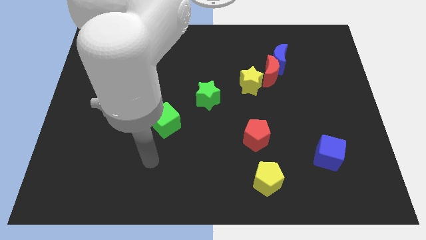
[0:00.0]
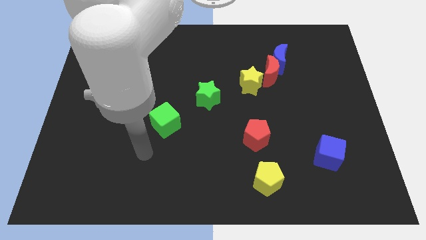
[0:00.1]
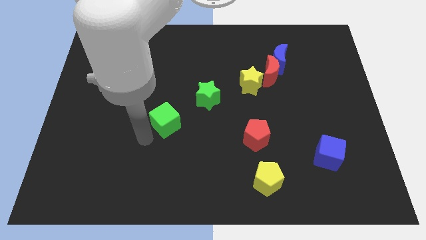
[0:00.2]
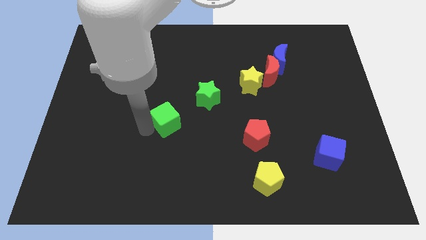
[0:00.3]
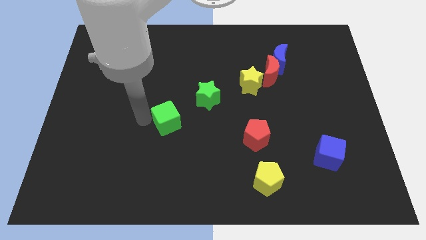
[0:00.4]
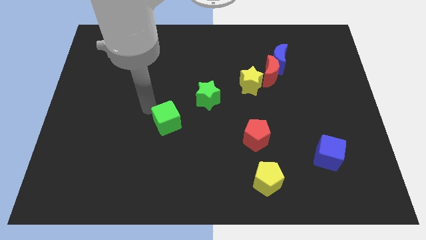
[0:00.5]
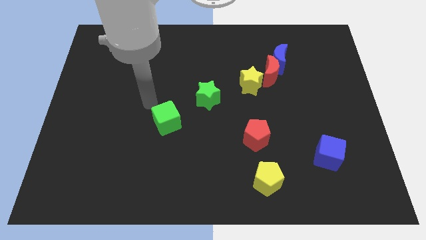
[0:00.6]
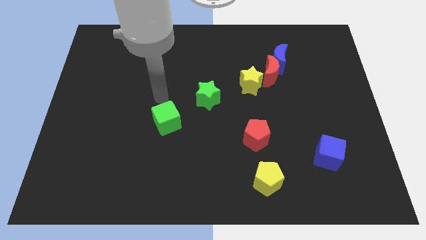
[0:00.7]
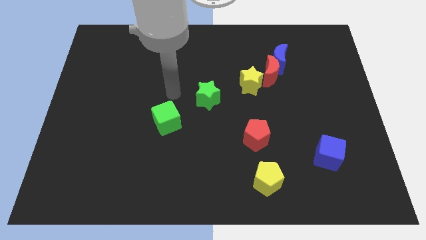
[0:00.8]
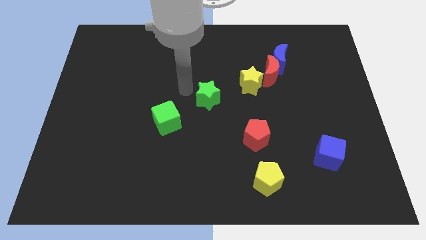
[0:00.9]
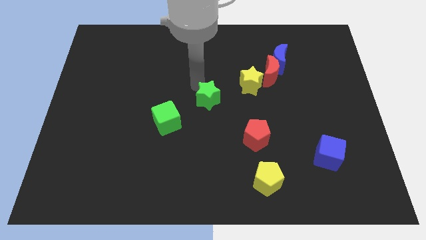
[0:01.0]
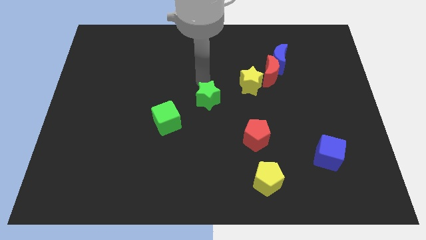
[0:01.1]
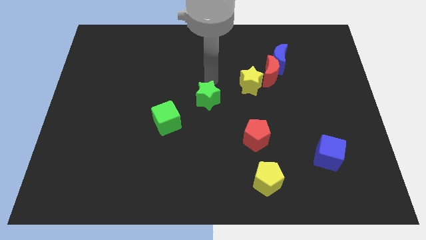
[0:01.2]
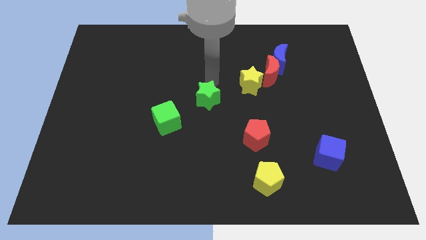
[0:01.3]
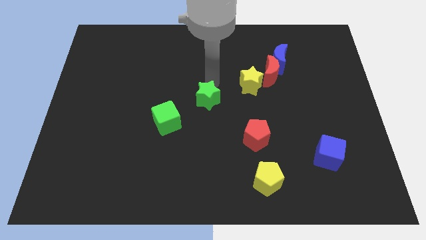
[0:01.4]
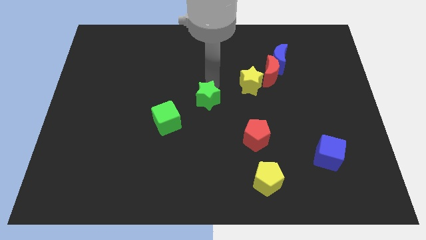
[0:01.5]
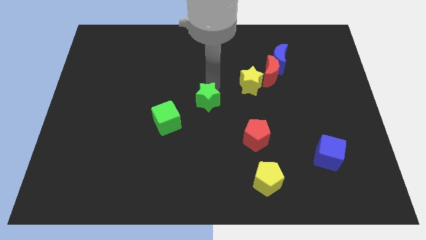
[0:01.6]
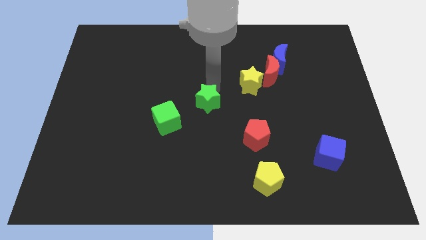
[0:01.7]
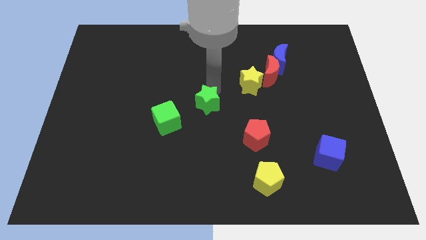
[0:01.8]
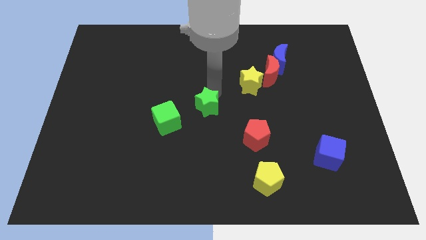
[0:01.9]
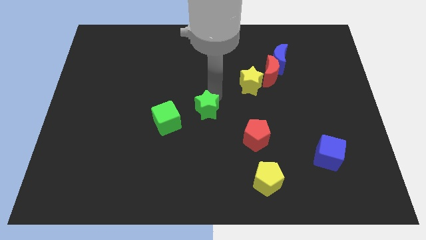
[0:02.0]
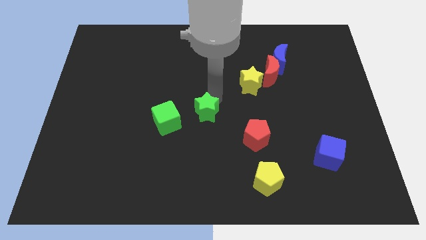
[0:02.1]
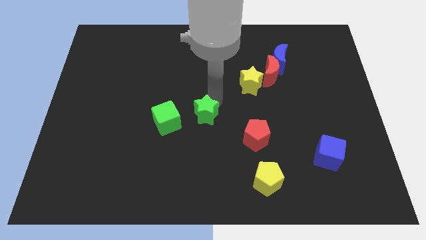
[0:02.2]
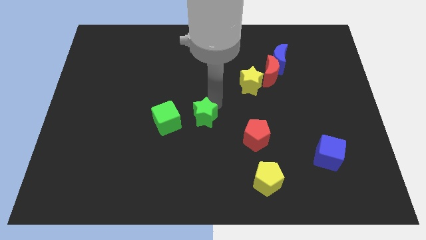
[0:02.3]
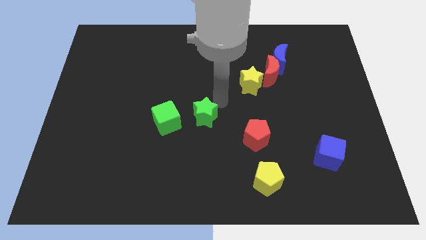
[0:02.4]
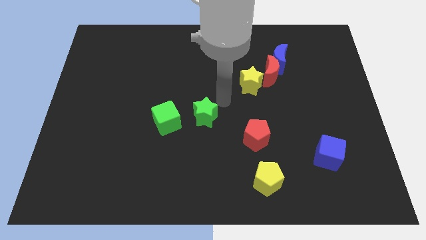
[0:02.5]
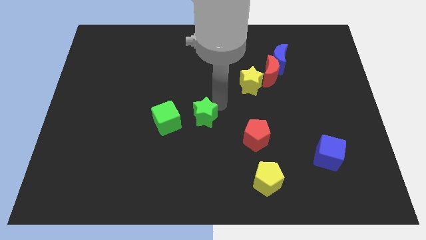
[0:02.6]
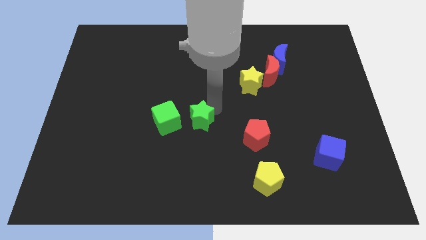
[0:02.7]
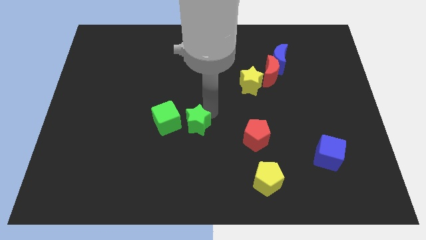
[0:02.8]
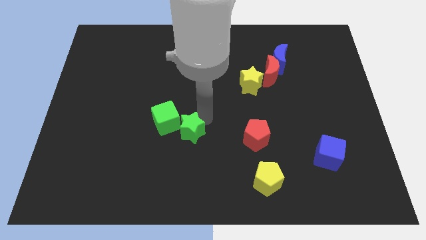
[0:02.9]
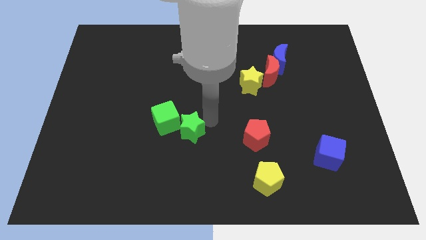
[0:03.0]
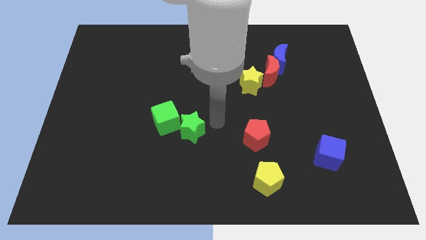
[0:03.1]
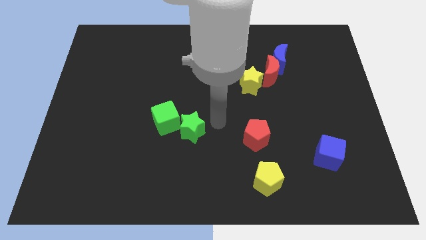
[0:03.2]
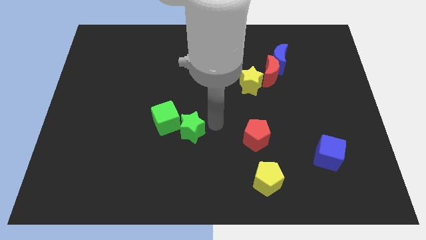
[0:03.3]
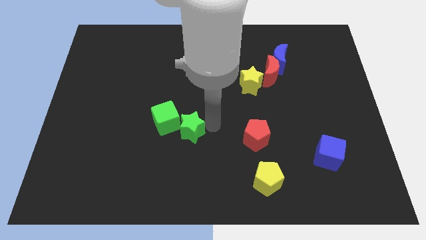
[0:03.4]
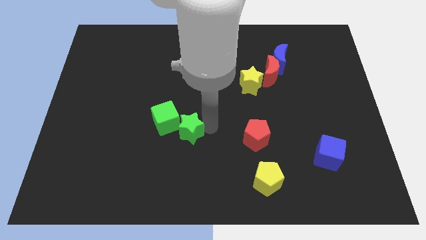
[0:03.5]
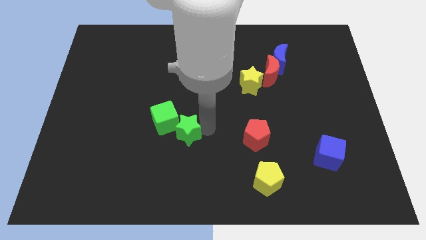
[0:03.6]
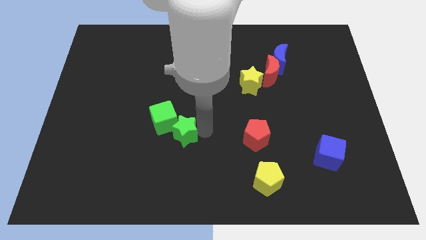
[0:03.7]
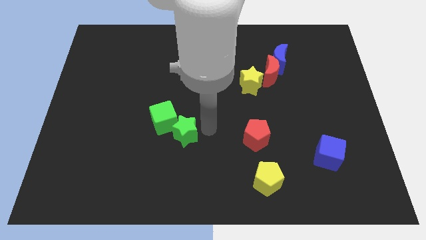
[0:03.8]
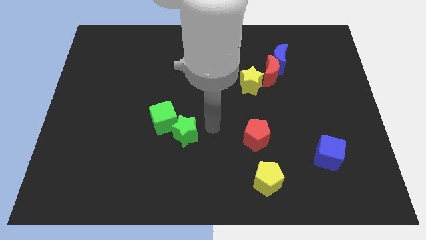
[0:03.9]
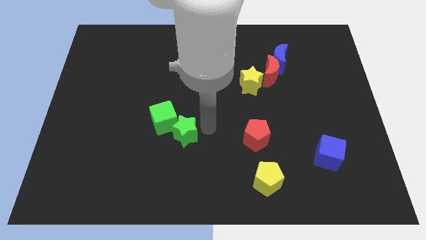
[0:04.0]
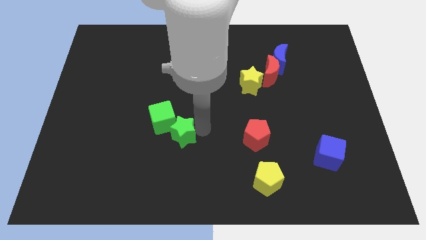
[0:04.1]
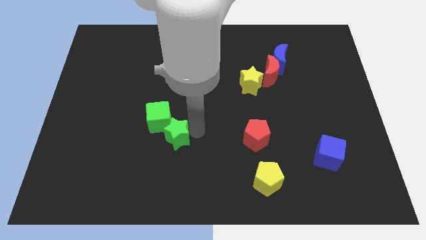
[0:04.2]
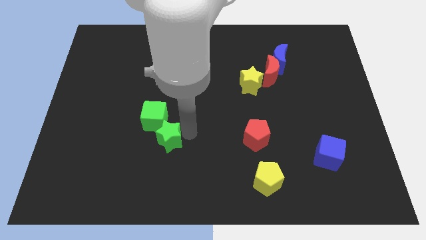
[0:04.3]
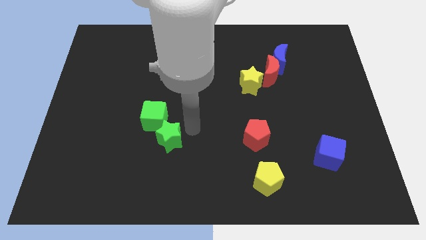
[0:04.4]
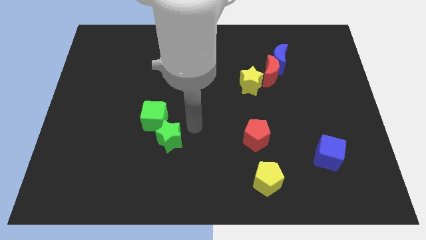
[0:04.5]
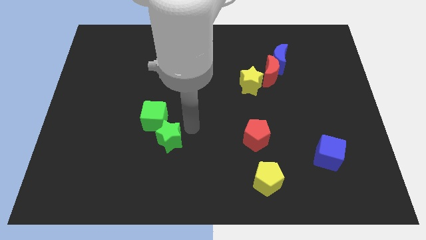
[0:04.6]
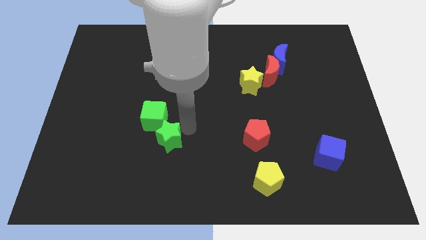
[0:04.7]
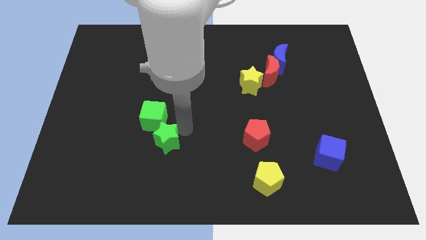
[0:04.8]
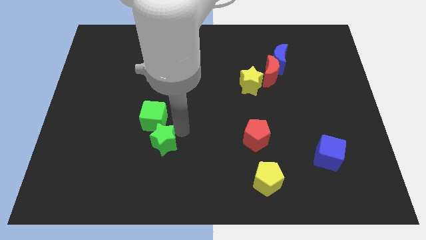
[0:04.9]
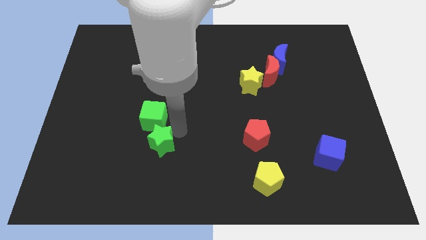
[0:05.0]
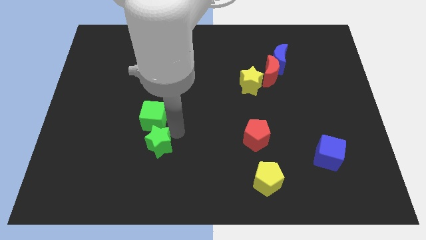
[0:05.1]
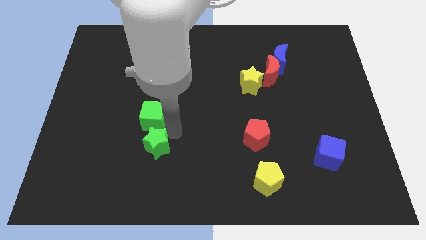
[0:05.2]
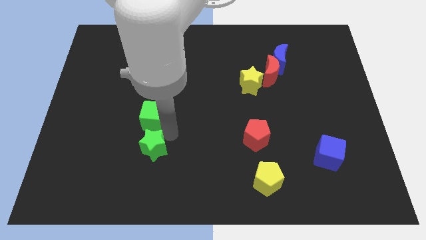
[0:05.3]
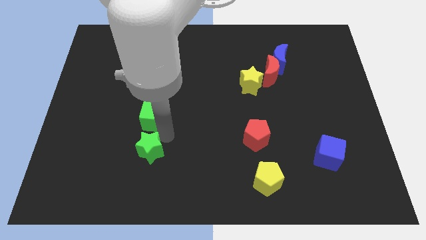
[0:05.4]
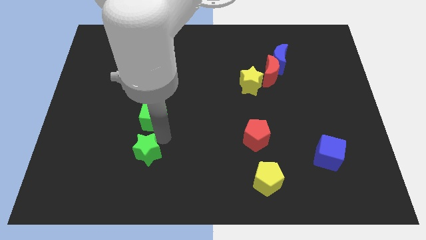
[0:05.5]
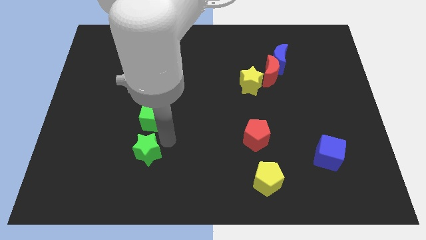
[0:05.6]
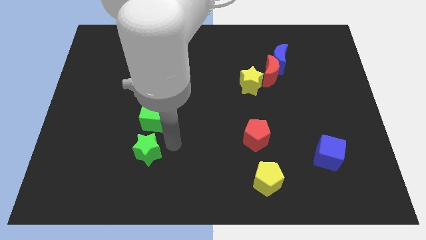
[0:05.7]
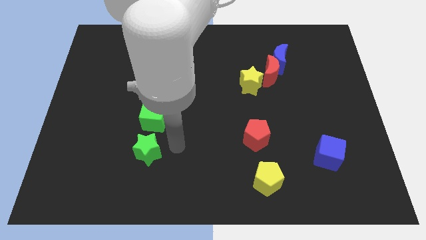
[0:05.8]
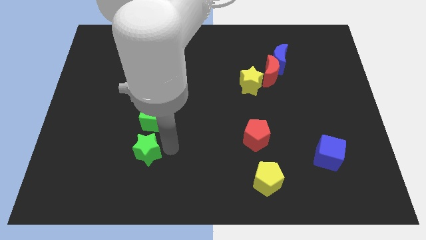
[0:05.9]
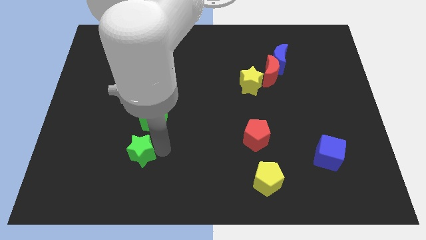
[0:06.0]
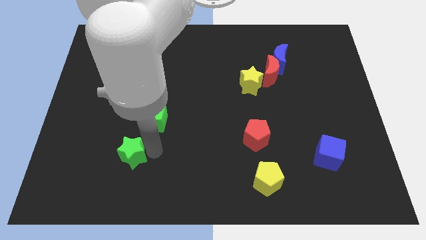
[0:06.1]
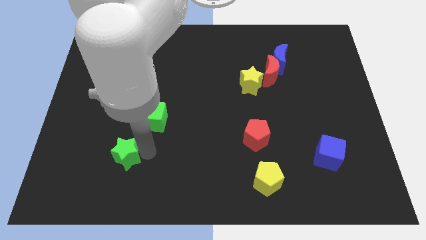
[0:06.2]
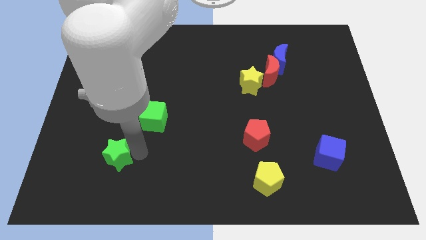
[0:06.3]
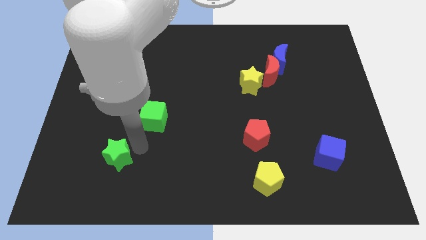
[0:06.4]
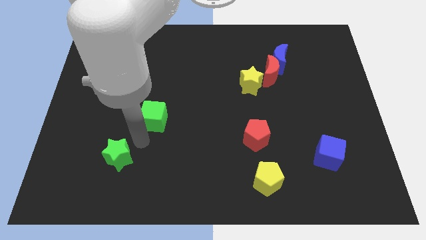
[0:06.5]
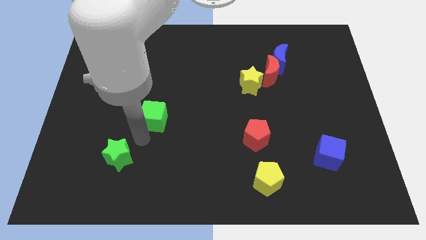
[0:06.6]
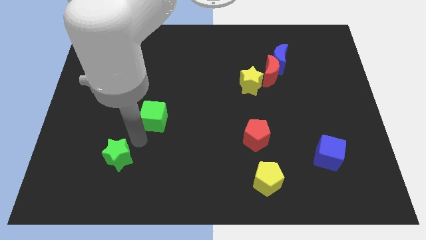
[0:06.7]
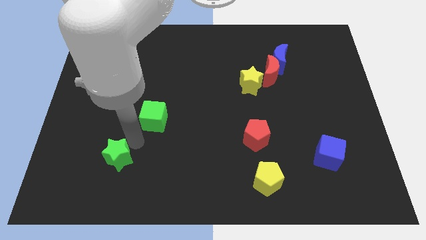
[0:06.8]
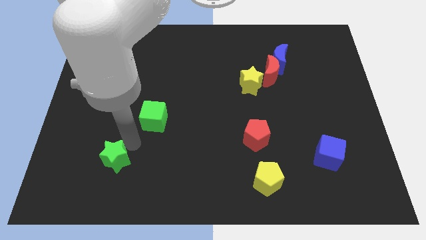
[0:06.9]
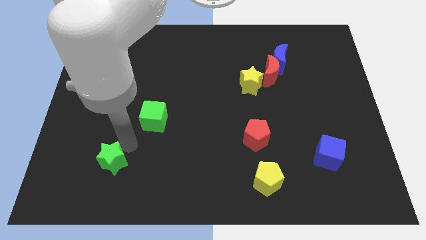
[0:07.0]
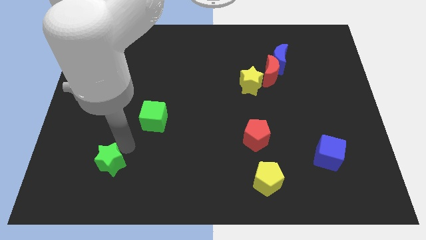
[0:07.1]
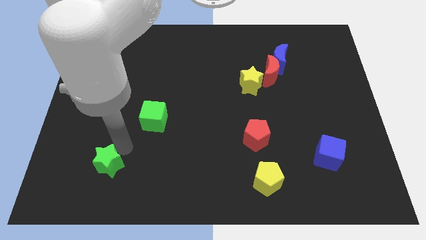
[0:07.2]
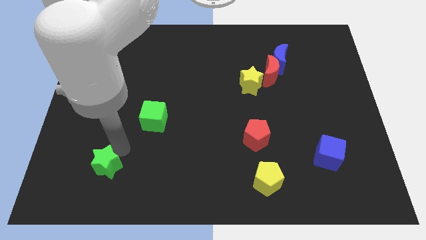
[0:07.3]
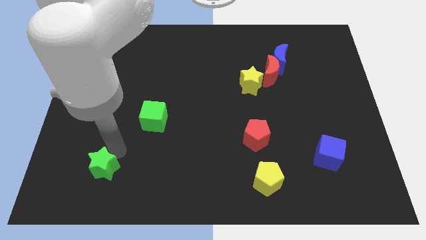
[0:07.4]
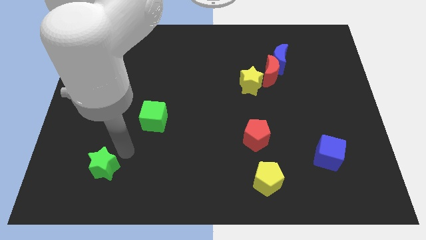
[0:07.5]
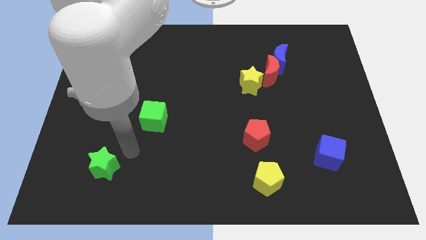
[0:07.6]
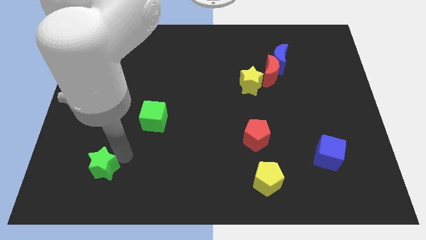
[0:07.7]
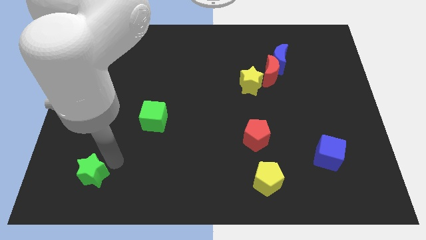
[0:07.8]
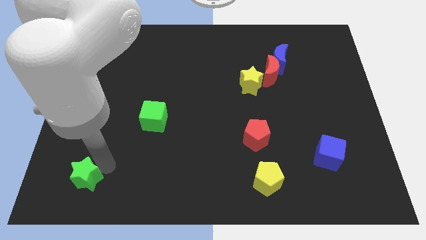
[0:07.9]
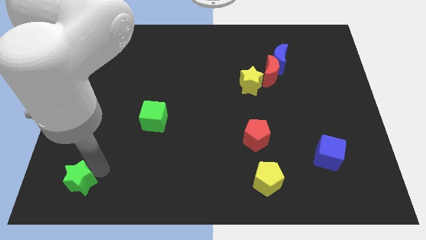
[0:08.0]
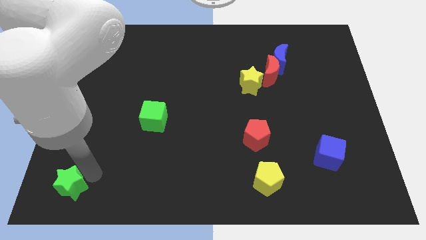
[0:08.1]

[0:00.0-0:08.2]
put the green star to the lower left corner
